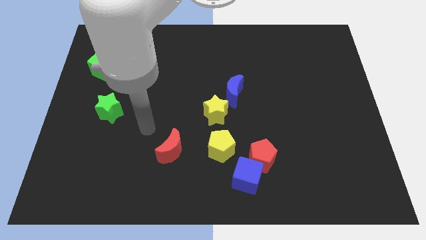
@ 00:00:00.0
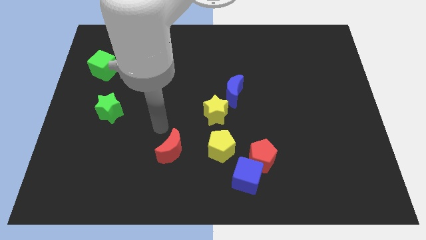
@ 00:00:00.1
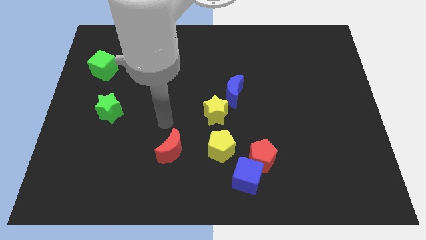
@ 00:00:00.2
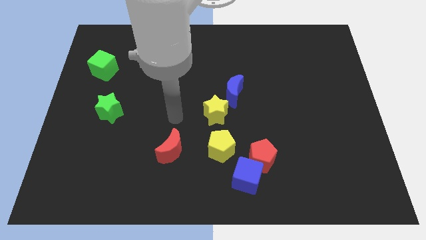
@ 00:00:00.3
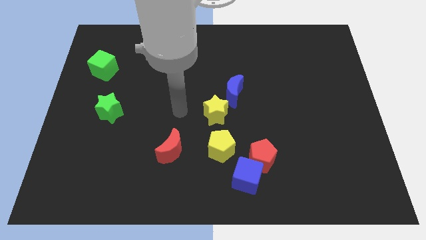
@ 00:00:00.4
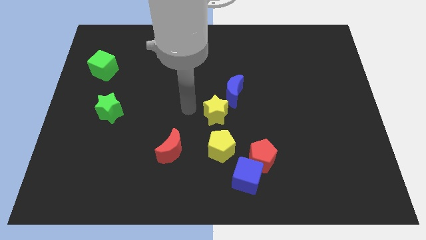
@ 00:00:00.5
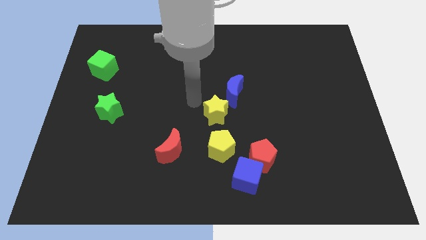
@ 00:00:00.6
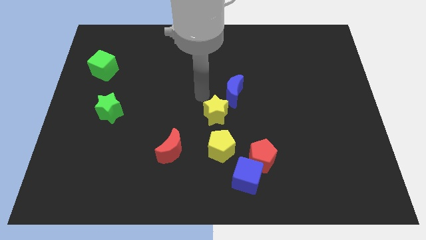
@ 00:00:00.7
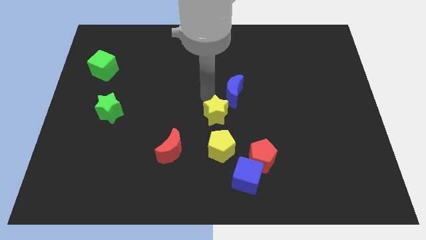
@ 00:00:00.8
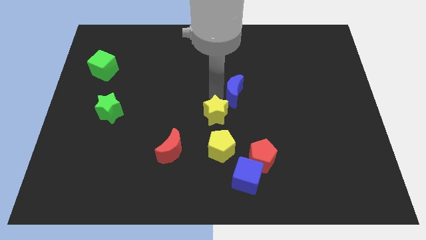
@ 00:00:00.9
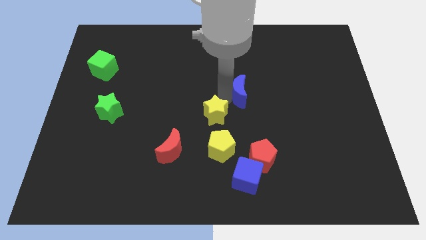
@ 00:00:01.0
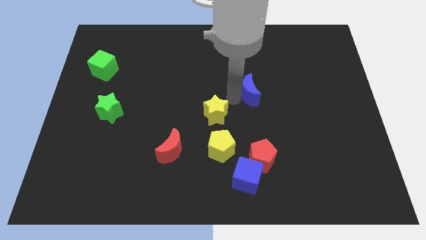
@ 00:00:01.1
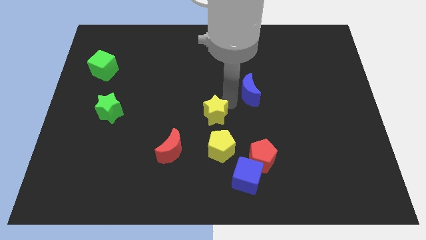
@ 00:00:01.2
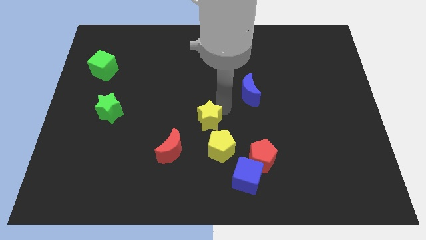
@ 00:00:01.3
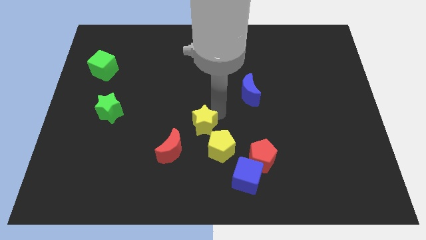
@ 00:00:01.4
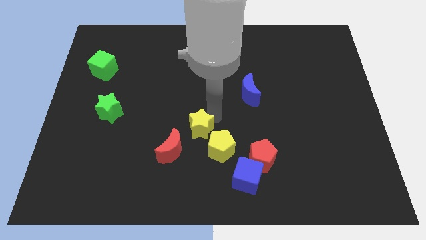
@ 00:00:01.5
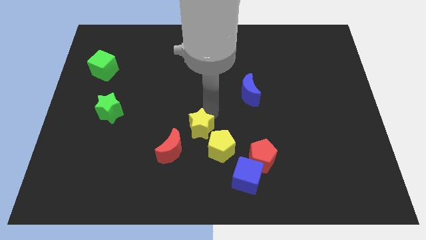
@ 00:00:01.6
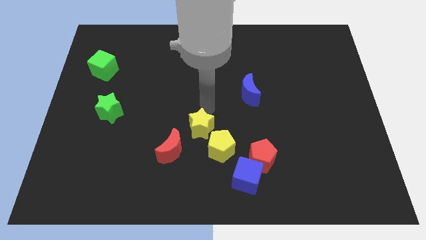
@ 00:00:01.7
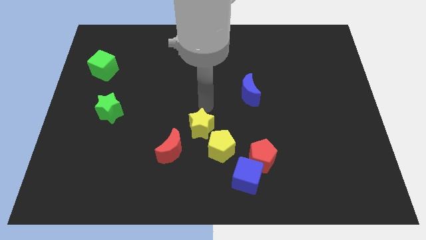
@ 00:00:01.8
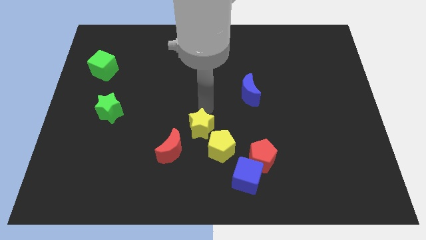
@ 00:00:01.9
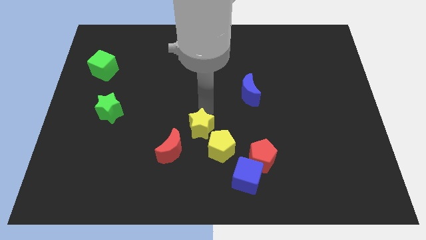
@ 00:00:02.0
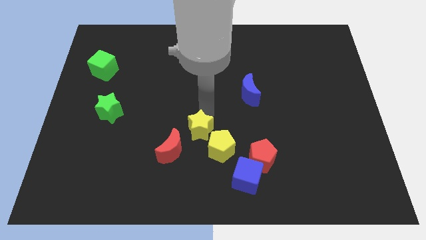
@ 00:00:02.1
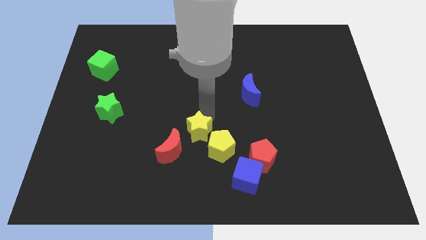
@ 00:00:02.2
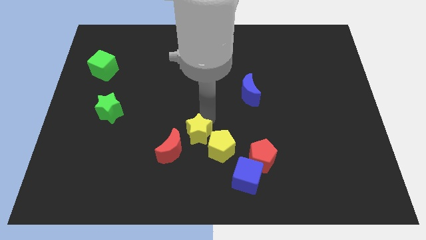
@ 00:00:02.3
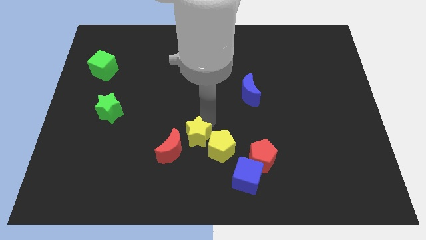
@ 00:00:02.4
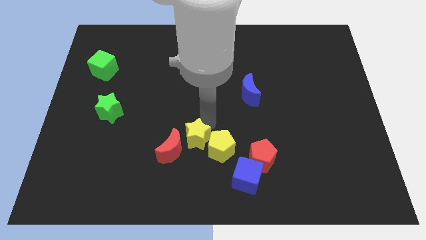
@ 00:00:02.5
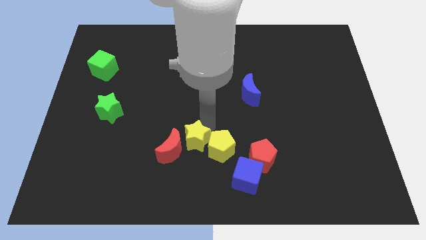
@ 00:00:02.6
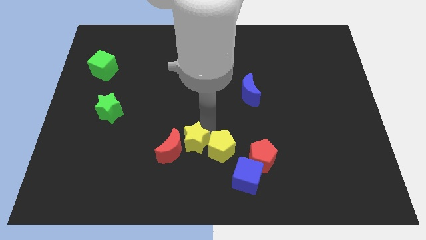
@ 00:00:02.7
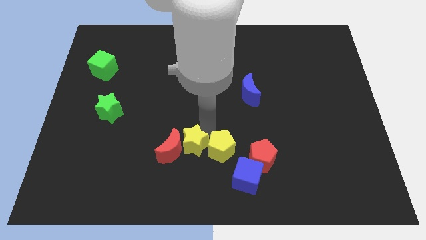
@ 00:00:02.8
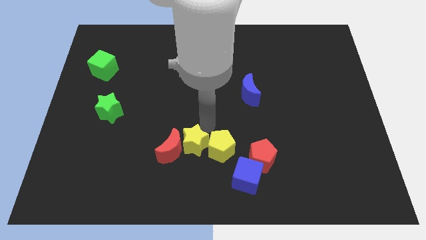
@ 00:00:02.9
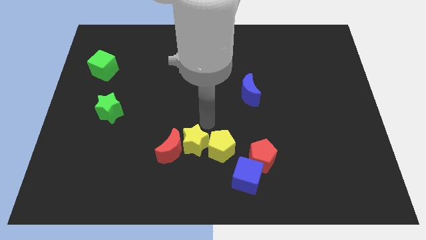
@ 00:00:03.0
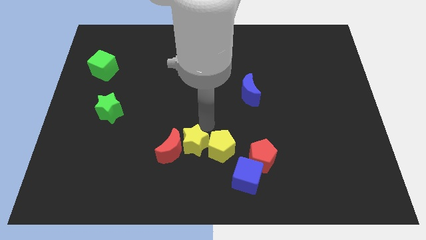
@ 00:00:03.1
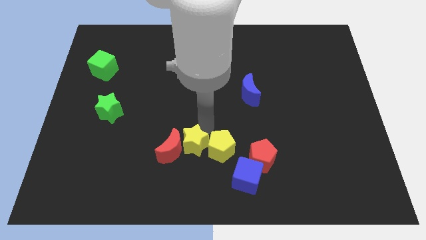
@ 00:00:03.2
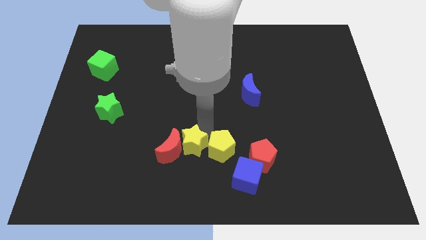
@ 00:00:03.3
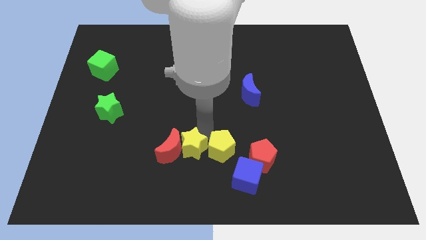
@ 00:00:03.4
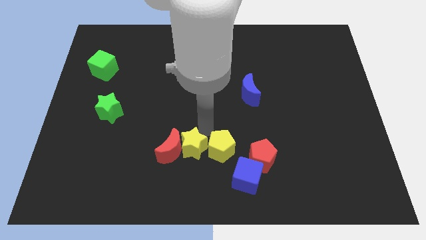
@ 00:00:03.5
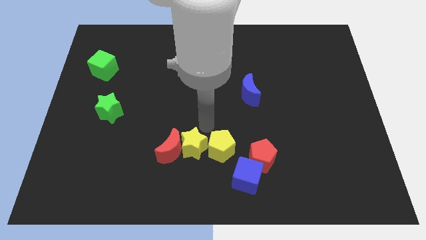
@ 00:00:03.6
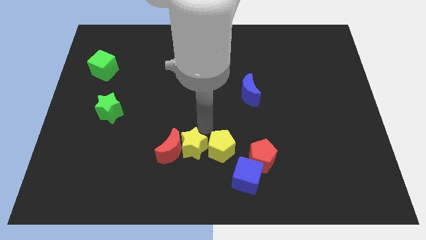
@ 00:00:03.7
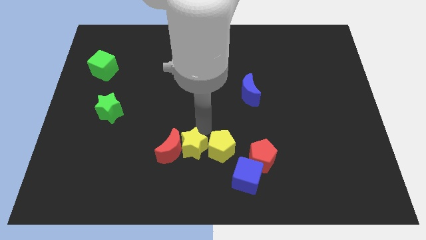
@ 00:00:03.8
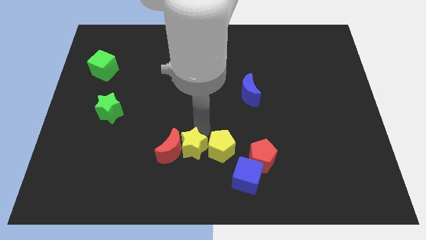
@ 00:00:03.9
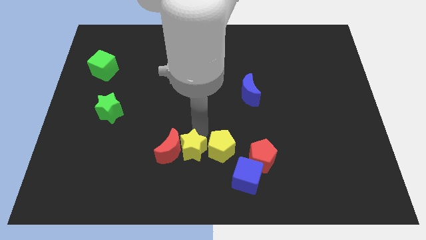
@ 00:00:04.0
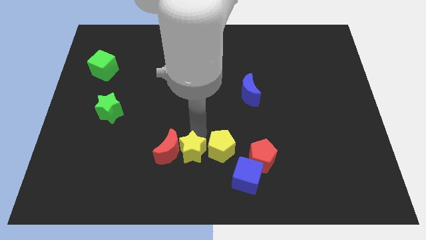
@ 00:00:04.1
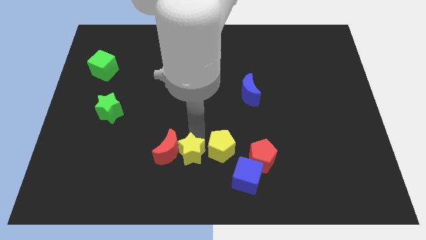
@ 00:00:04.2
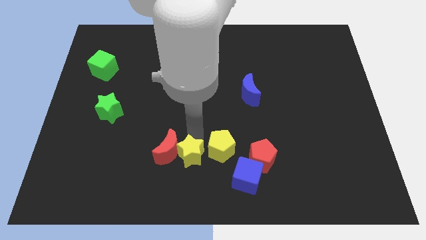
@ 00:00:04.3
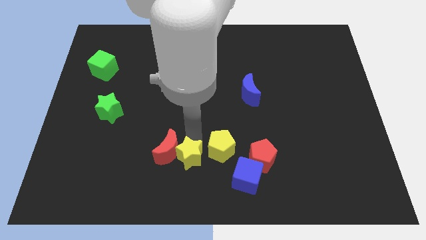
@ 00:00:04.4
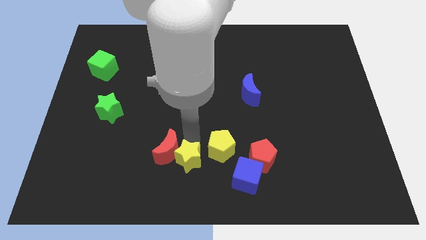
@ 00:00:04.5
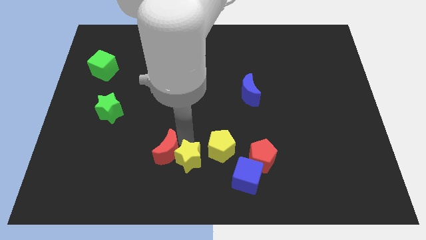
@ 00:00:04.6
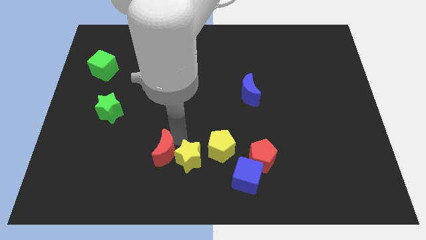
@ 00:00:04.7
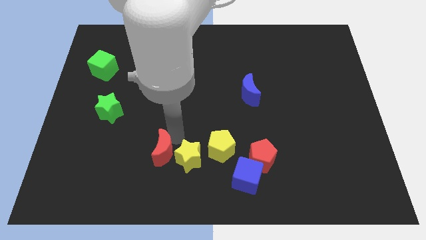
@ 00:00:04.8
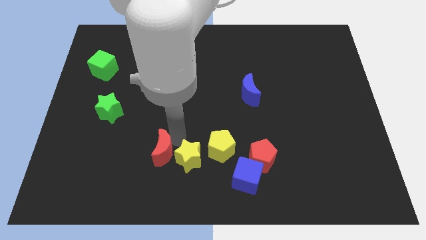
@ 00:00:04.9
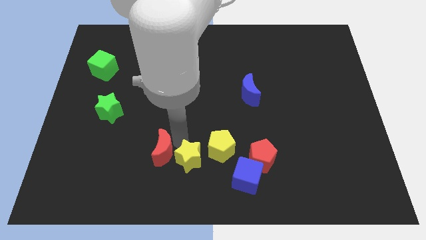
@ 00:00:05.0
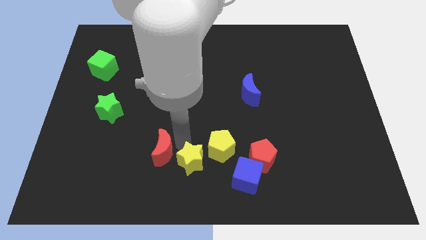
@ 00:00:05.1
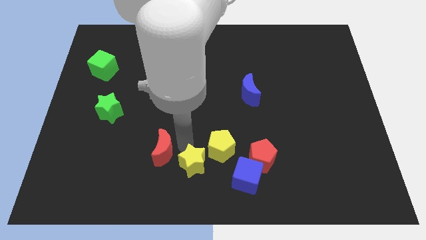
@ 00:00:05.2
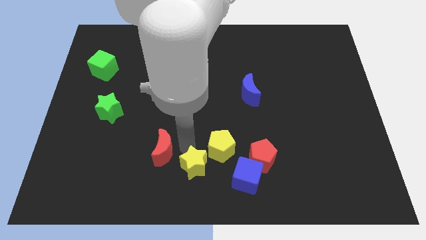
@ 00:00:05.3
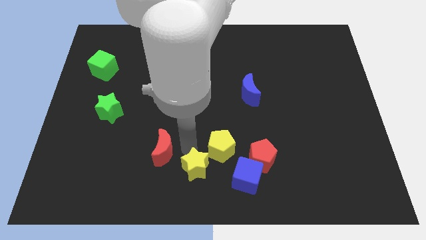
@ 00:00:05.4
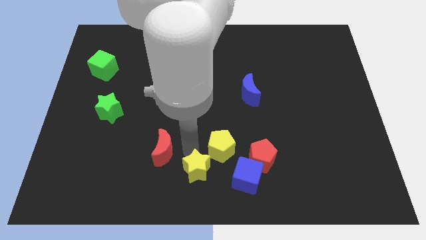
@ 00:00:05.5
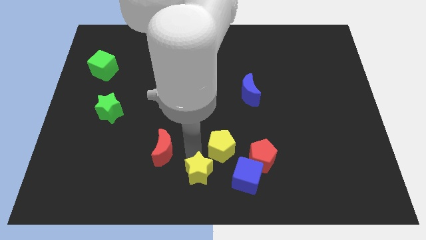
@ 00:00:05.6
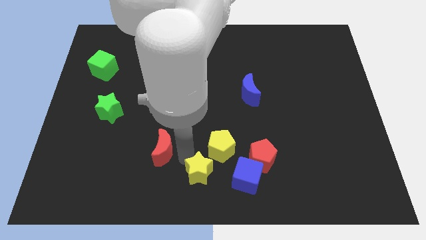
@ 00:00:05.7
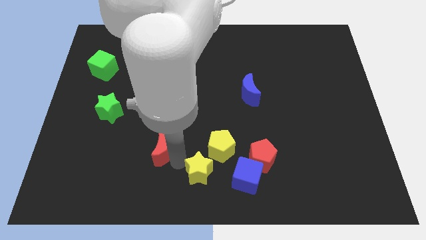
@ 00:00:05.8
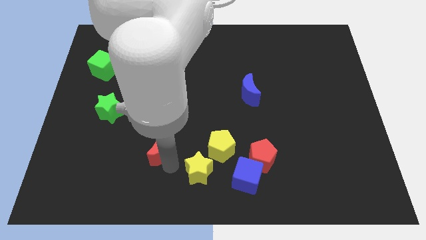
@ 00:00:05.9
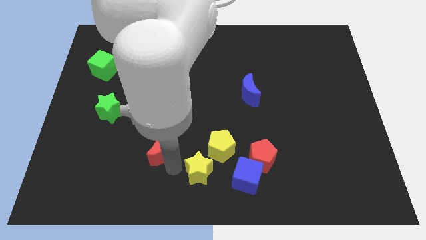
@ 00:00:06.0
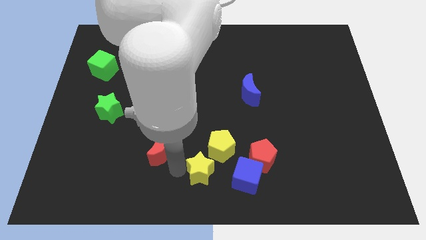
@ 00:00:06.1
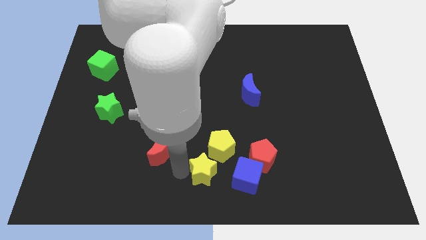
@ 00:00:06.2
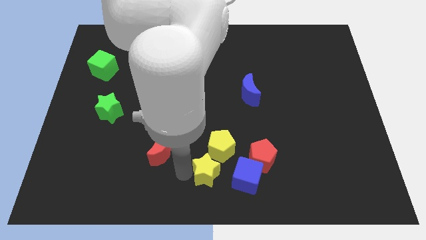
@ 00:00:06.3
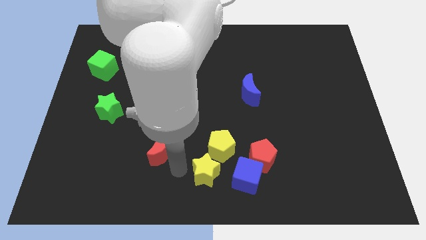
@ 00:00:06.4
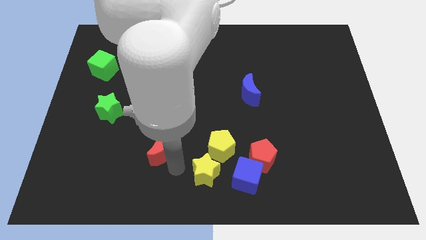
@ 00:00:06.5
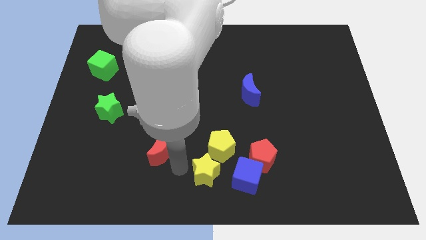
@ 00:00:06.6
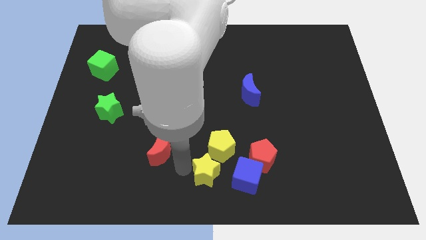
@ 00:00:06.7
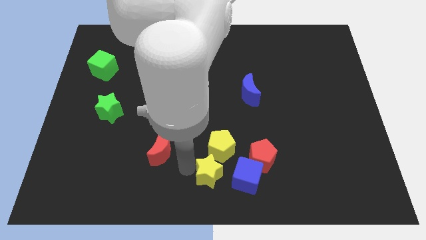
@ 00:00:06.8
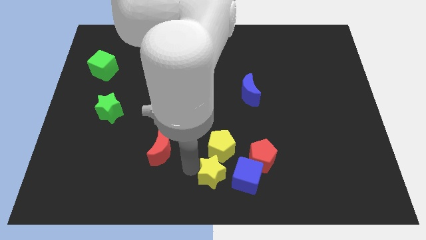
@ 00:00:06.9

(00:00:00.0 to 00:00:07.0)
slide the yellow star to the bottom left of the red pentagon

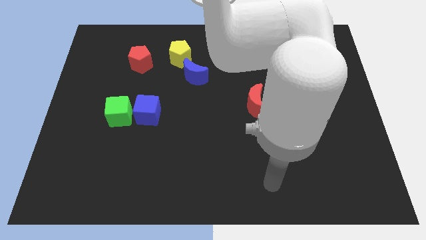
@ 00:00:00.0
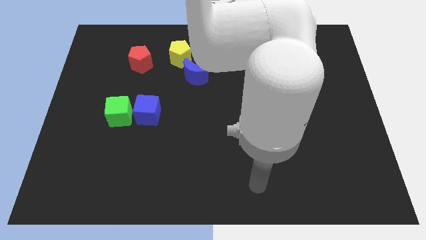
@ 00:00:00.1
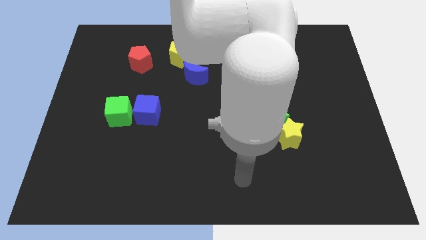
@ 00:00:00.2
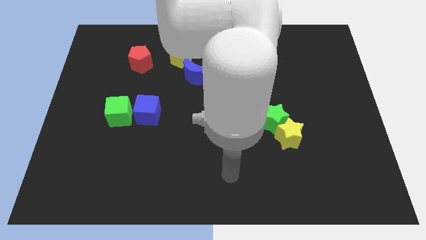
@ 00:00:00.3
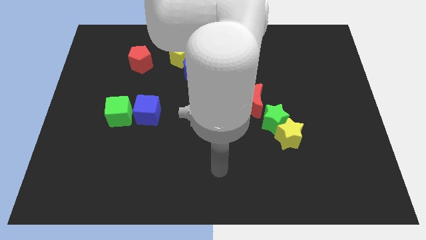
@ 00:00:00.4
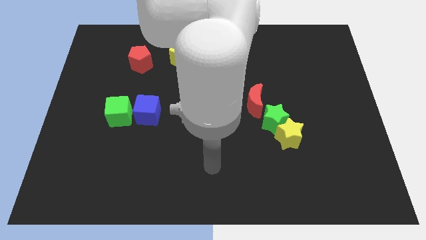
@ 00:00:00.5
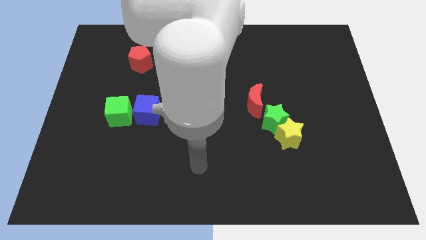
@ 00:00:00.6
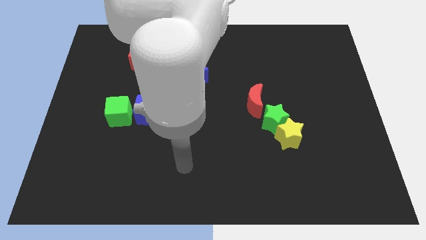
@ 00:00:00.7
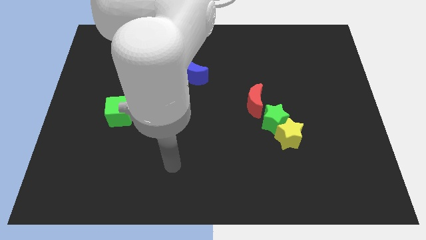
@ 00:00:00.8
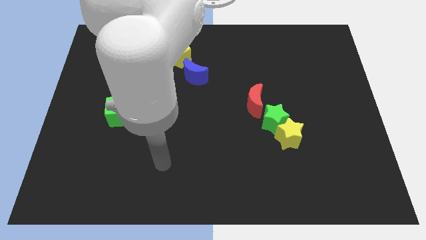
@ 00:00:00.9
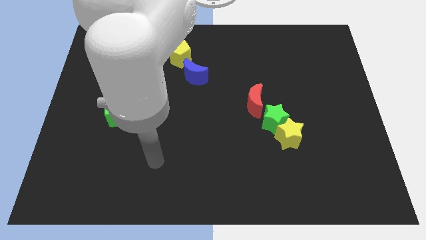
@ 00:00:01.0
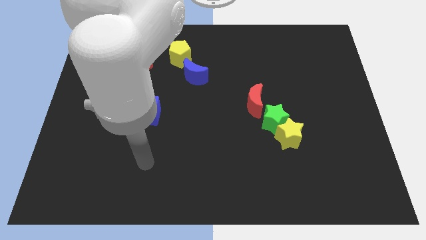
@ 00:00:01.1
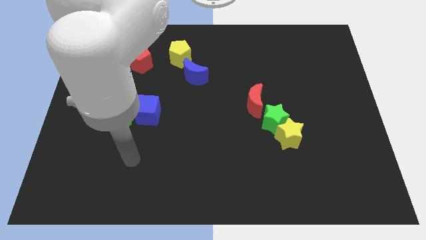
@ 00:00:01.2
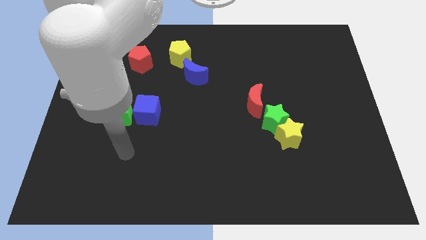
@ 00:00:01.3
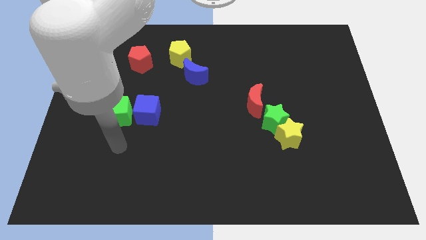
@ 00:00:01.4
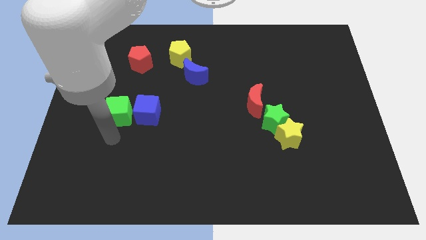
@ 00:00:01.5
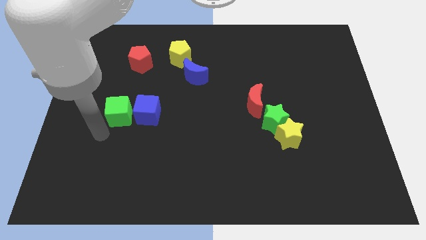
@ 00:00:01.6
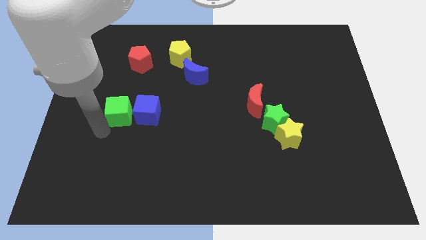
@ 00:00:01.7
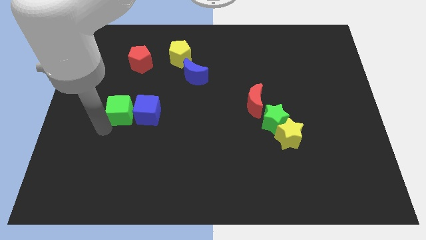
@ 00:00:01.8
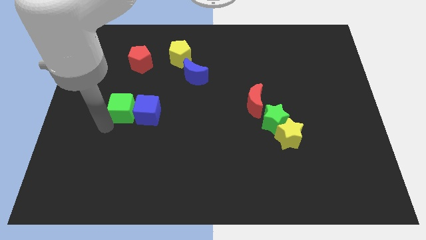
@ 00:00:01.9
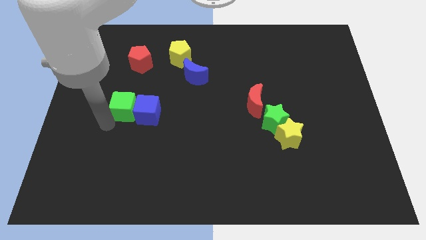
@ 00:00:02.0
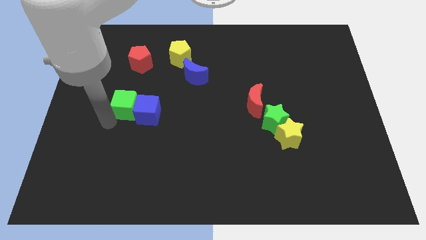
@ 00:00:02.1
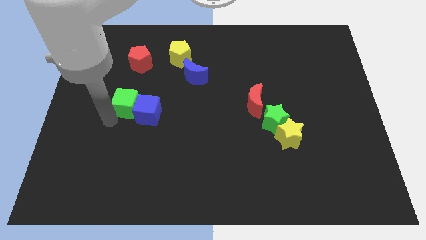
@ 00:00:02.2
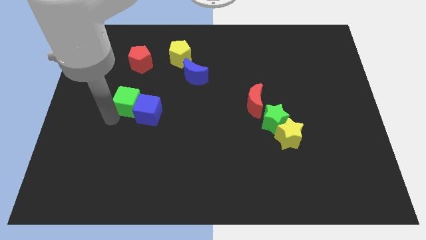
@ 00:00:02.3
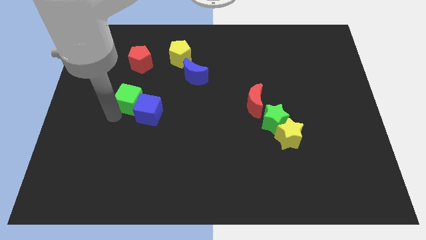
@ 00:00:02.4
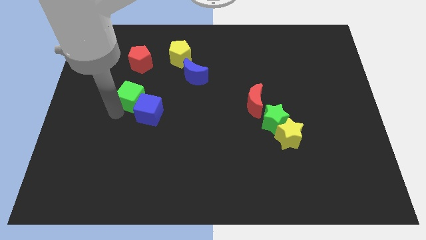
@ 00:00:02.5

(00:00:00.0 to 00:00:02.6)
put the green cube above the blue cube
